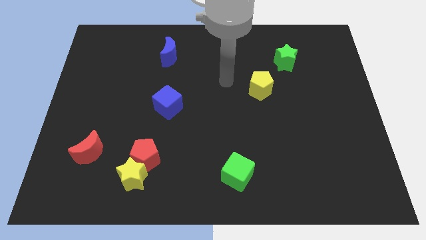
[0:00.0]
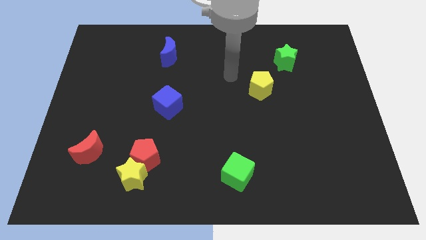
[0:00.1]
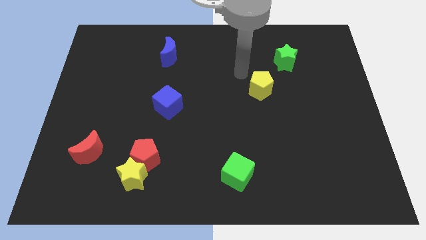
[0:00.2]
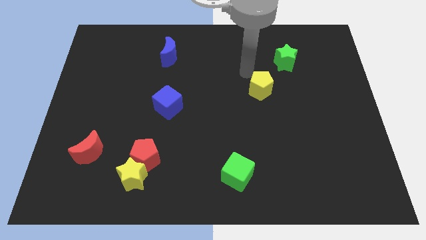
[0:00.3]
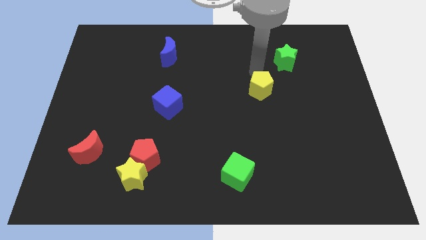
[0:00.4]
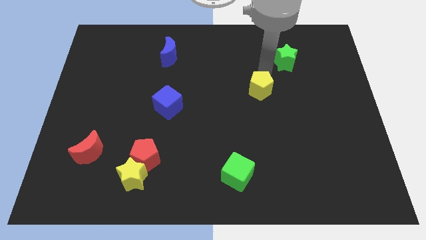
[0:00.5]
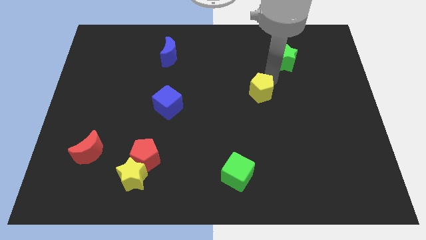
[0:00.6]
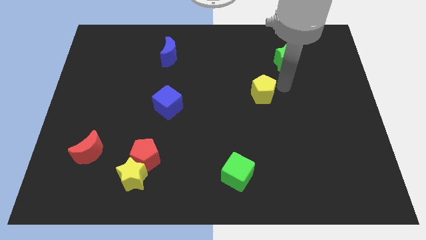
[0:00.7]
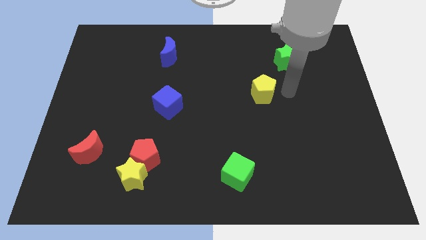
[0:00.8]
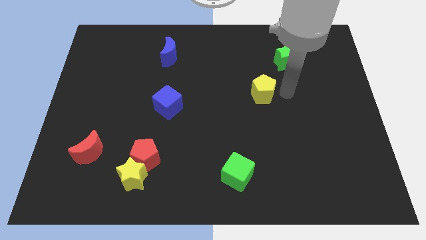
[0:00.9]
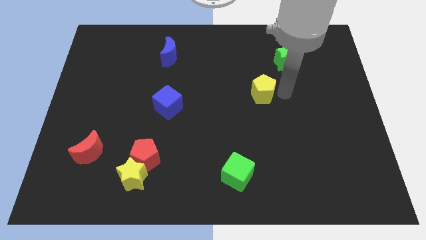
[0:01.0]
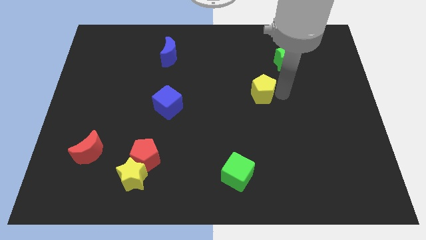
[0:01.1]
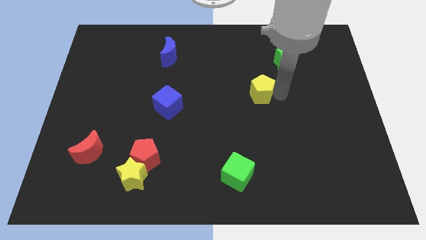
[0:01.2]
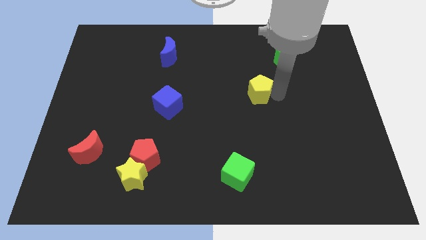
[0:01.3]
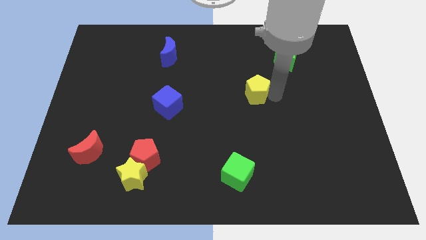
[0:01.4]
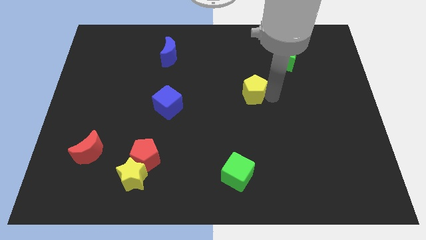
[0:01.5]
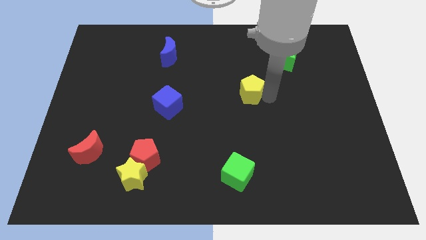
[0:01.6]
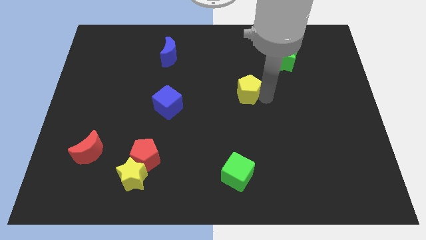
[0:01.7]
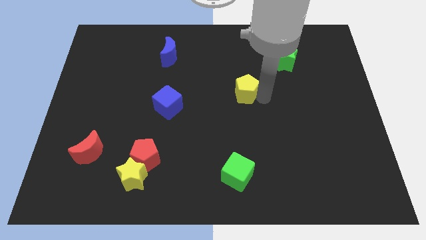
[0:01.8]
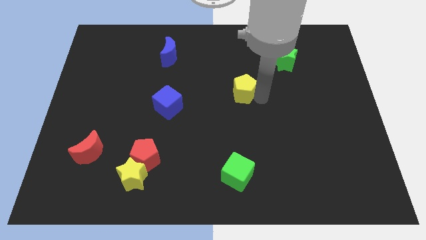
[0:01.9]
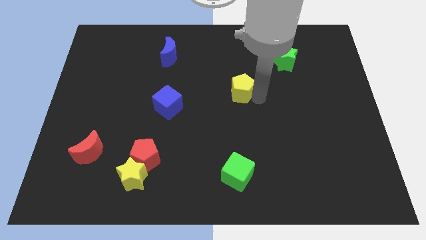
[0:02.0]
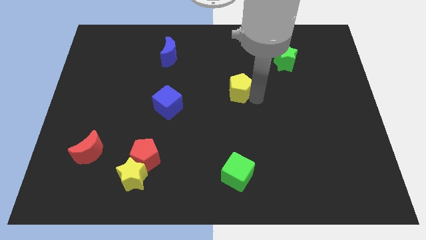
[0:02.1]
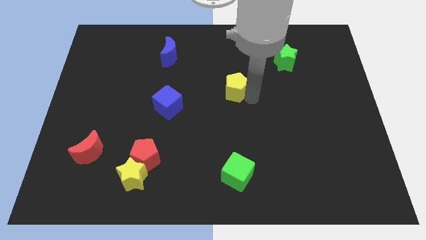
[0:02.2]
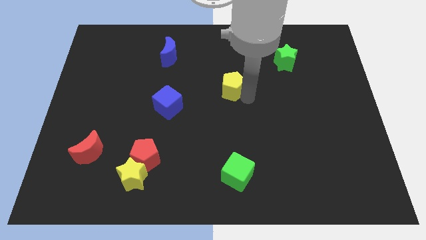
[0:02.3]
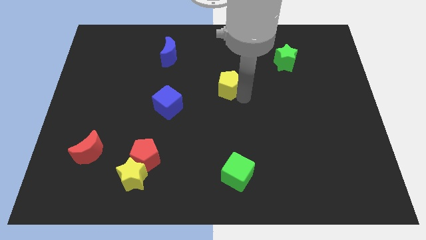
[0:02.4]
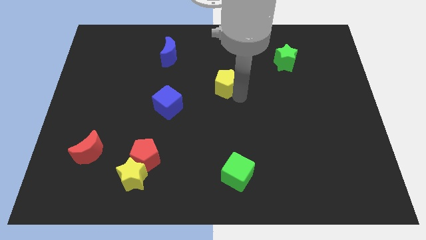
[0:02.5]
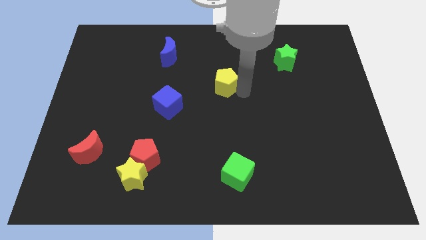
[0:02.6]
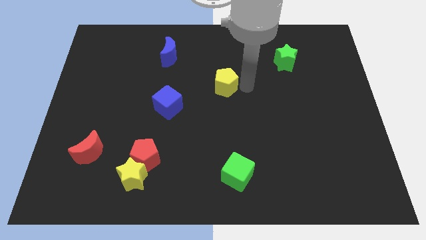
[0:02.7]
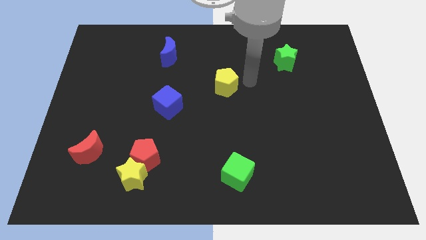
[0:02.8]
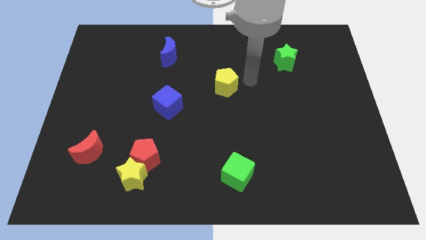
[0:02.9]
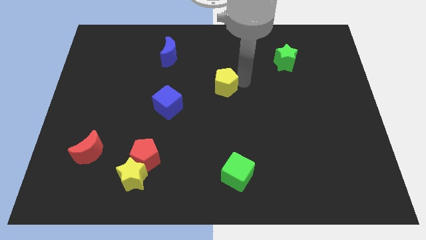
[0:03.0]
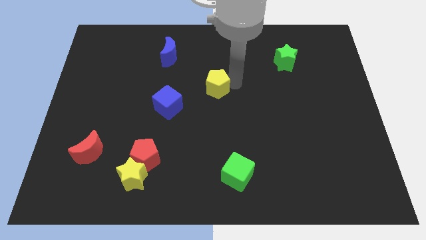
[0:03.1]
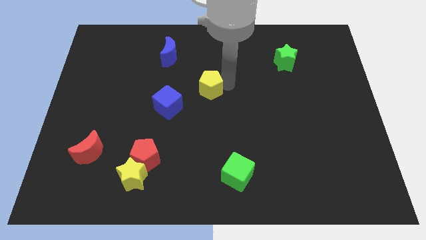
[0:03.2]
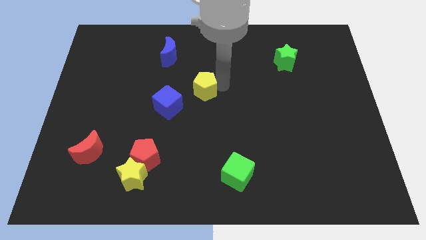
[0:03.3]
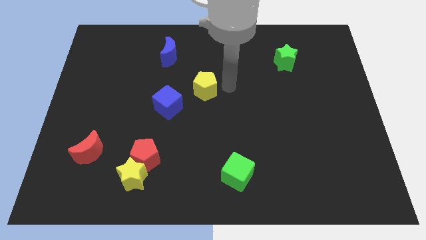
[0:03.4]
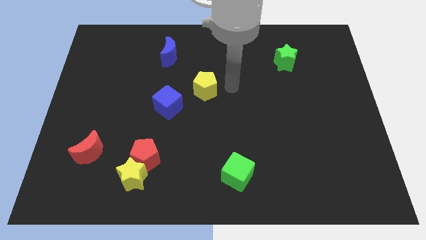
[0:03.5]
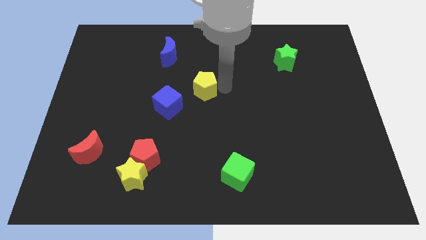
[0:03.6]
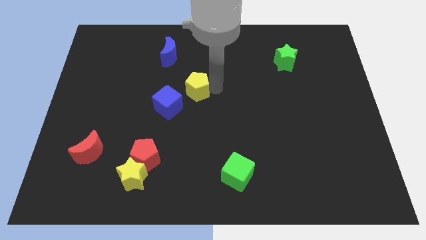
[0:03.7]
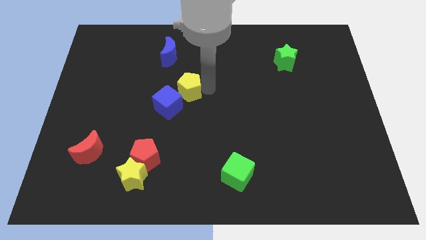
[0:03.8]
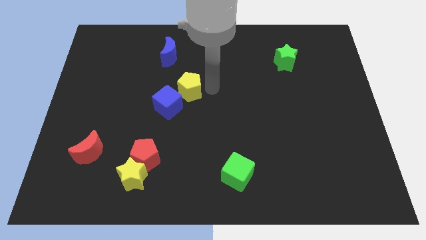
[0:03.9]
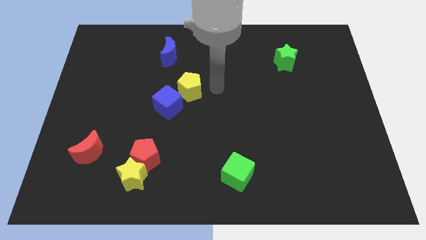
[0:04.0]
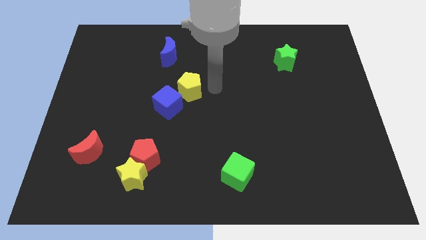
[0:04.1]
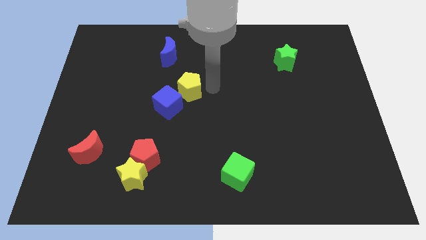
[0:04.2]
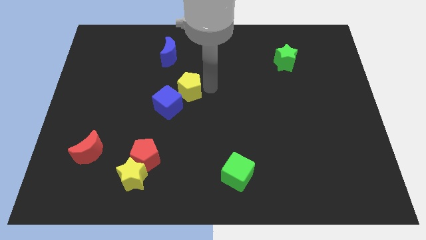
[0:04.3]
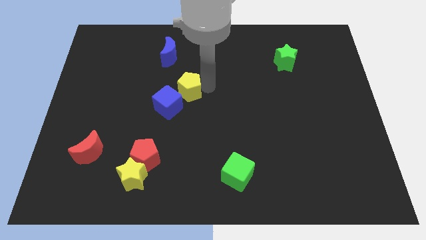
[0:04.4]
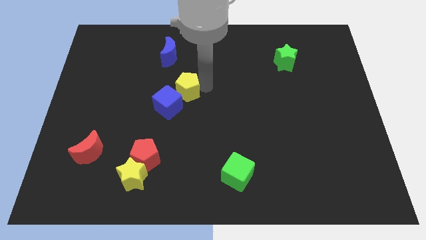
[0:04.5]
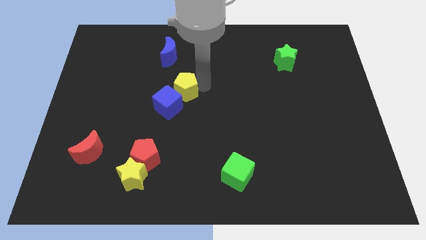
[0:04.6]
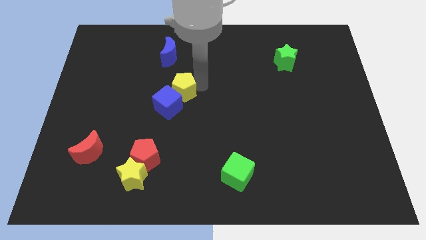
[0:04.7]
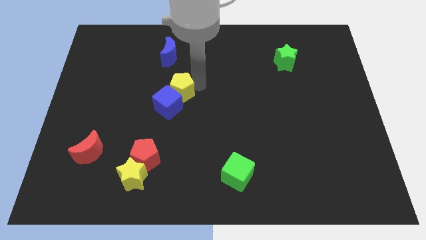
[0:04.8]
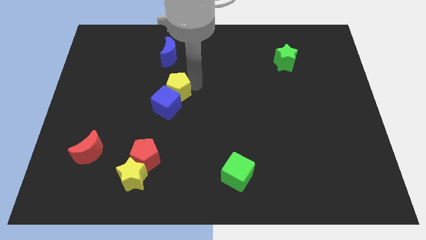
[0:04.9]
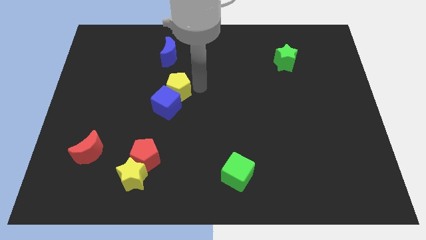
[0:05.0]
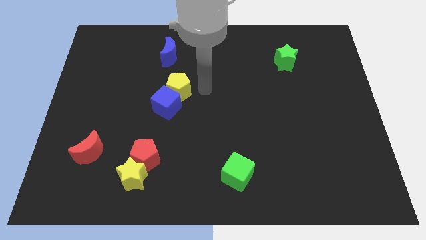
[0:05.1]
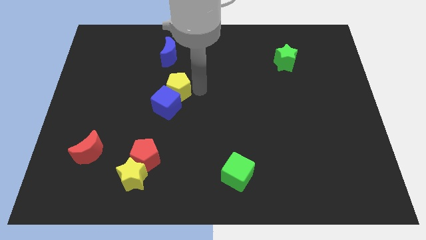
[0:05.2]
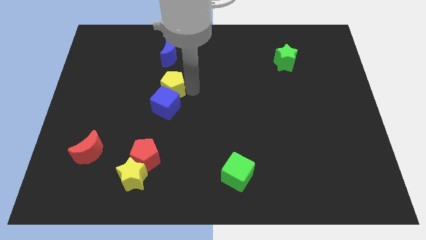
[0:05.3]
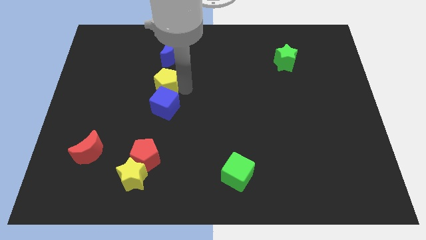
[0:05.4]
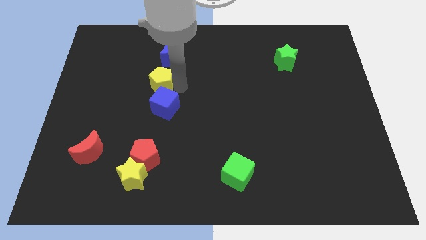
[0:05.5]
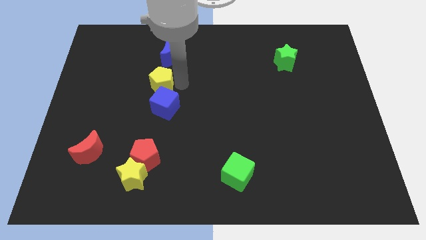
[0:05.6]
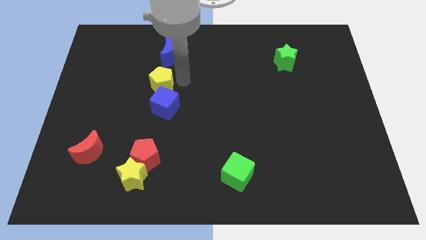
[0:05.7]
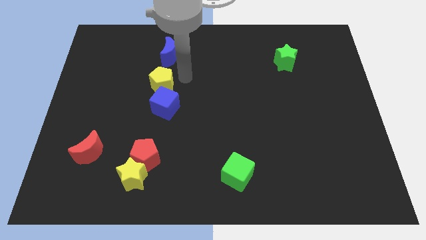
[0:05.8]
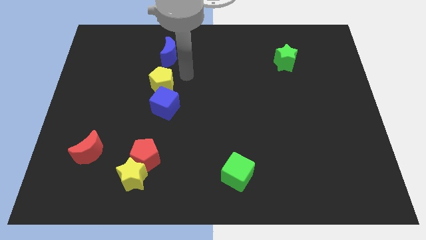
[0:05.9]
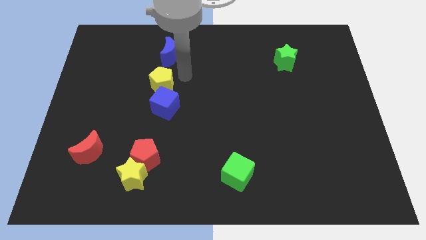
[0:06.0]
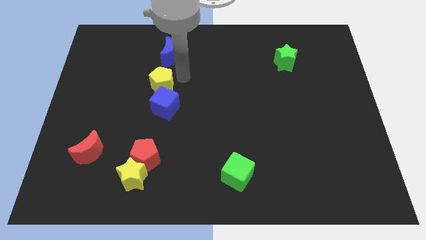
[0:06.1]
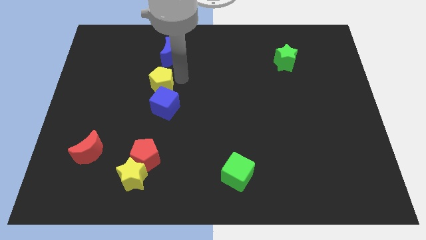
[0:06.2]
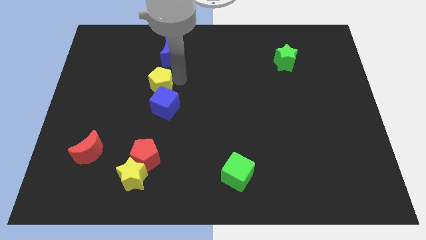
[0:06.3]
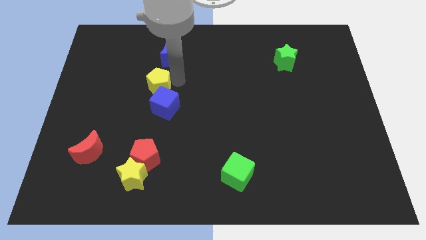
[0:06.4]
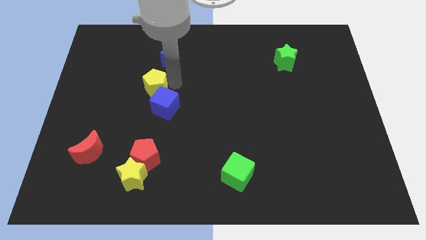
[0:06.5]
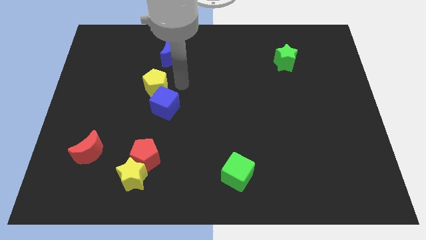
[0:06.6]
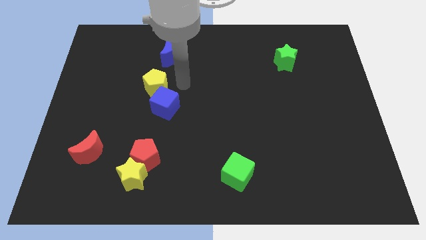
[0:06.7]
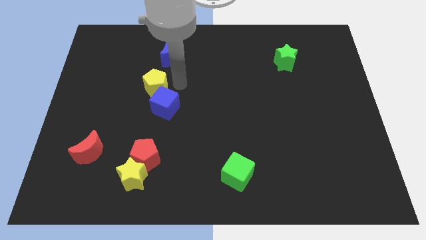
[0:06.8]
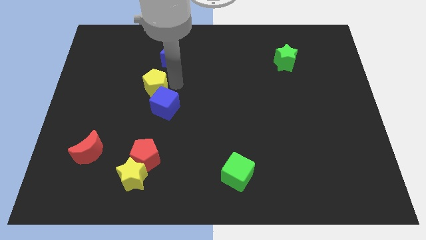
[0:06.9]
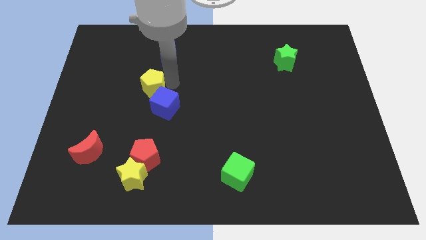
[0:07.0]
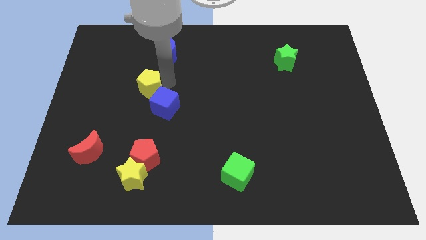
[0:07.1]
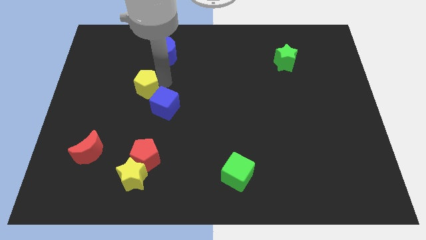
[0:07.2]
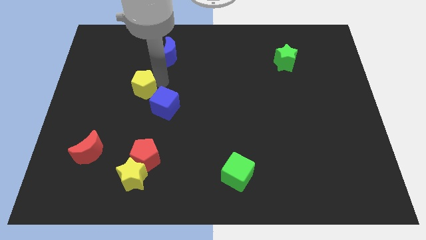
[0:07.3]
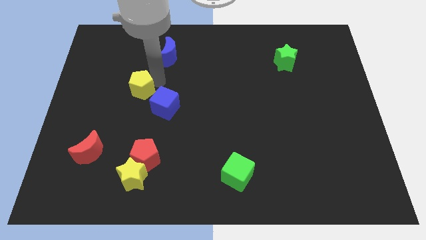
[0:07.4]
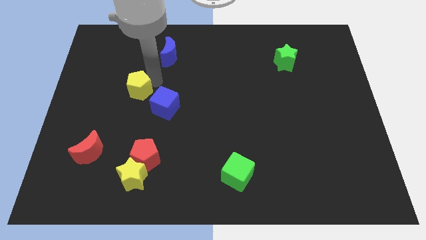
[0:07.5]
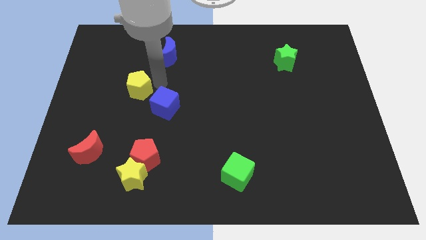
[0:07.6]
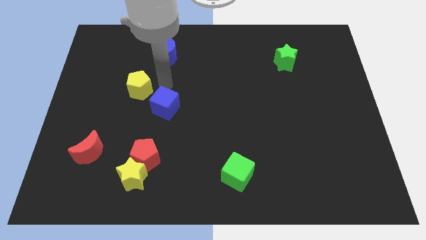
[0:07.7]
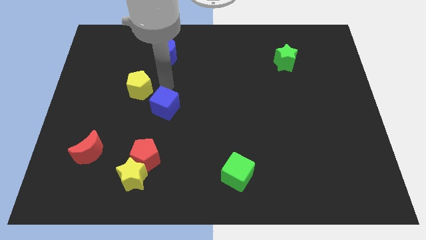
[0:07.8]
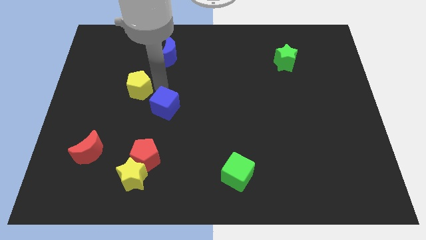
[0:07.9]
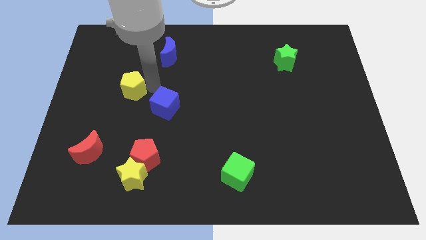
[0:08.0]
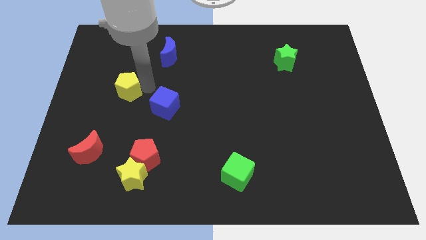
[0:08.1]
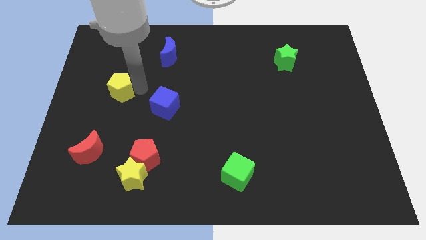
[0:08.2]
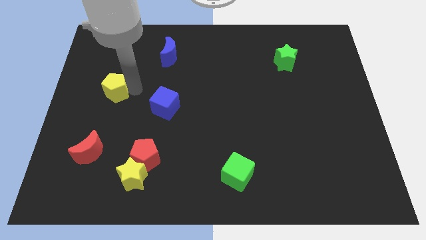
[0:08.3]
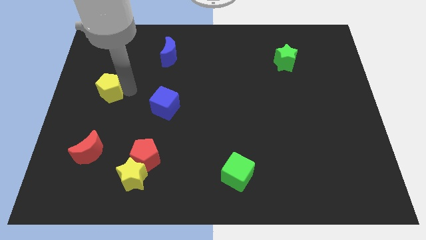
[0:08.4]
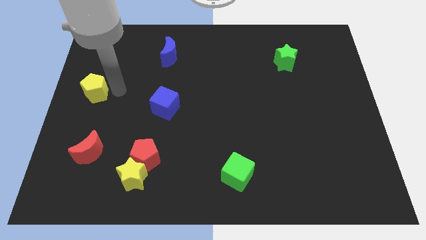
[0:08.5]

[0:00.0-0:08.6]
move the yellow pentagon to the left side of the board
